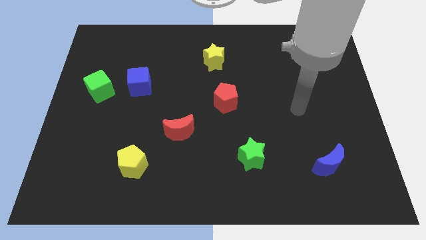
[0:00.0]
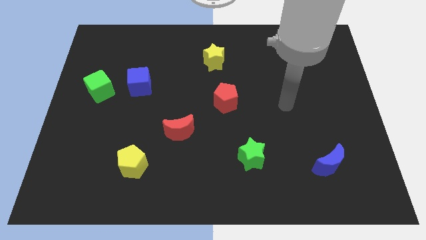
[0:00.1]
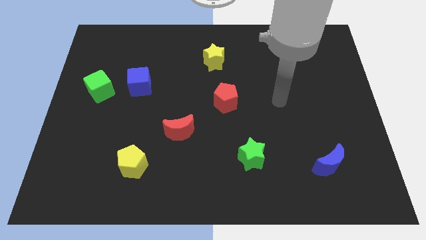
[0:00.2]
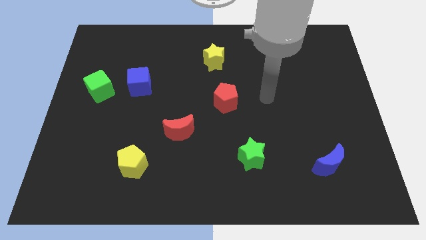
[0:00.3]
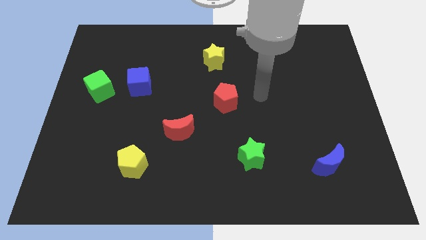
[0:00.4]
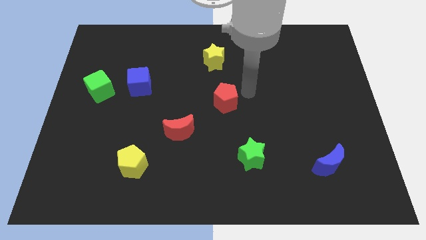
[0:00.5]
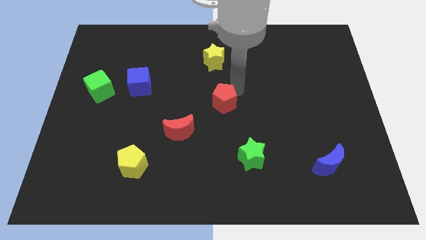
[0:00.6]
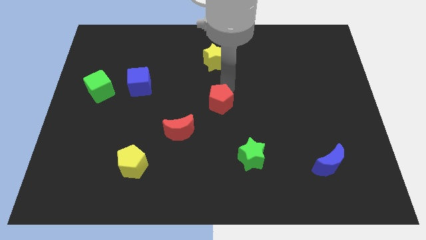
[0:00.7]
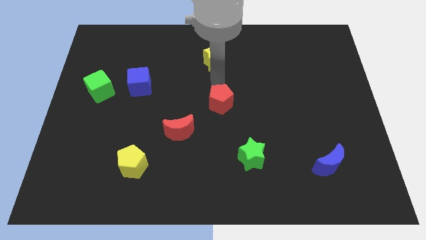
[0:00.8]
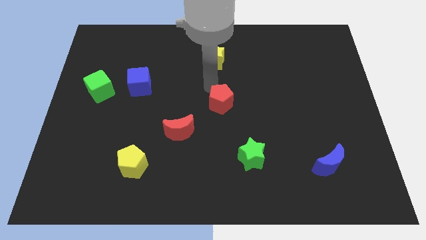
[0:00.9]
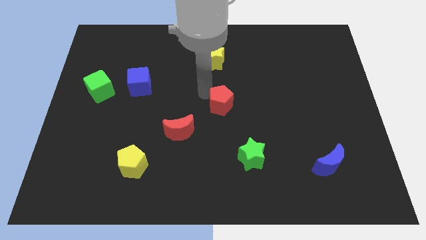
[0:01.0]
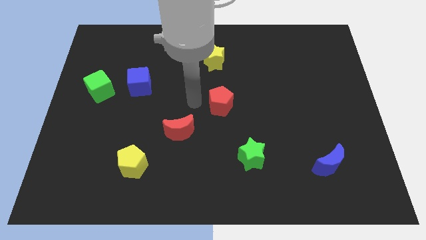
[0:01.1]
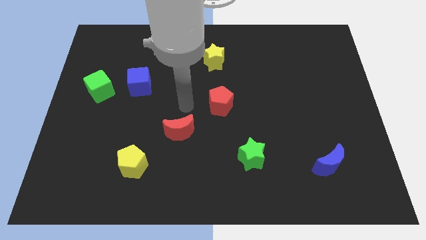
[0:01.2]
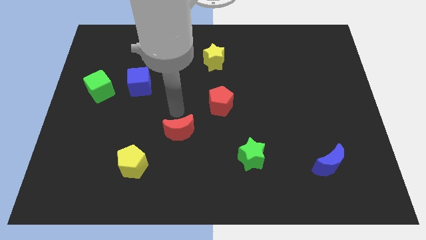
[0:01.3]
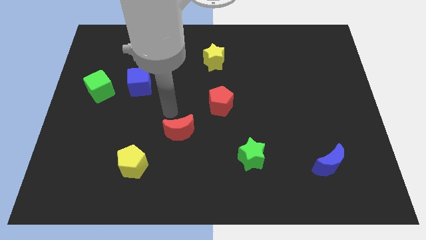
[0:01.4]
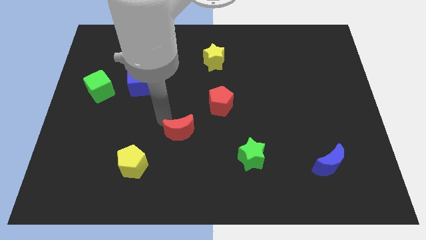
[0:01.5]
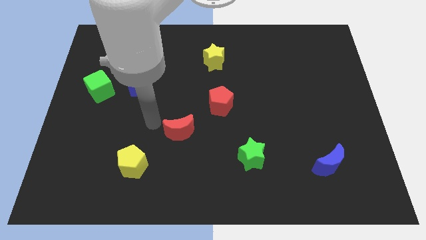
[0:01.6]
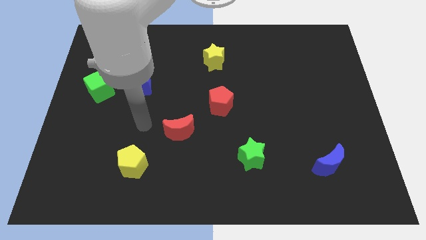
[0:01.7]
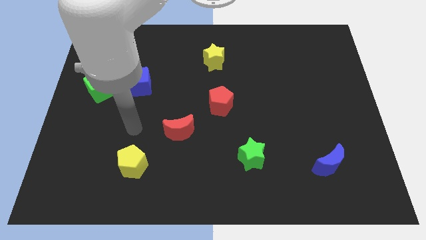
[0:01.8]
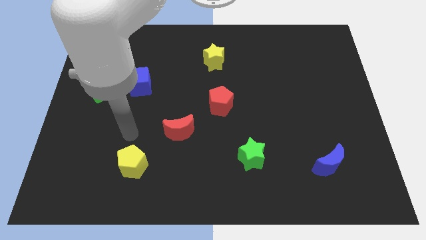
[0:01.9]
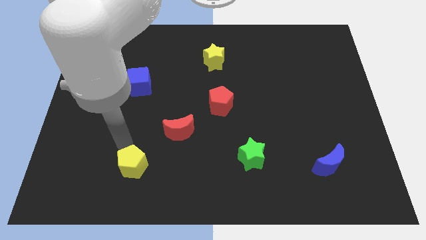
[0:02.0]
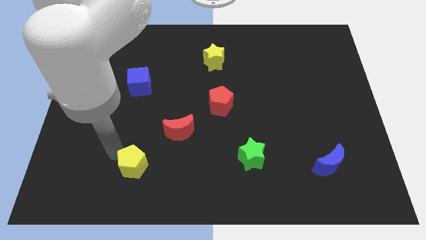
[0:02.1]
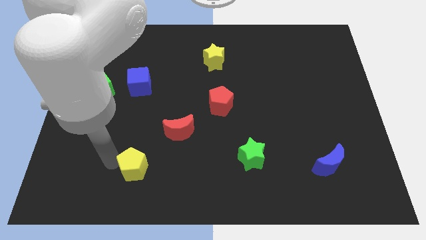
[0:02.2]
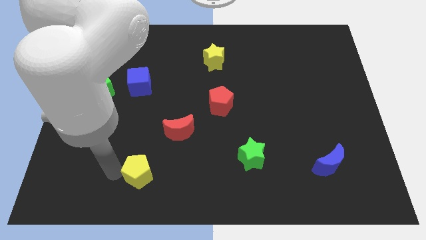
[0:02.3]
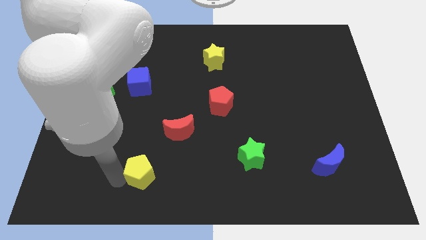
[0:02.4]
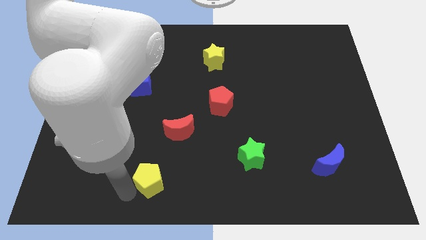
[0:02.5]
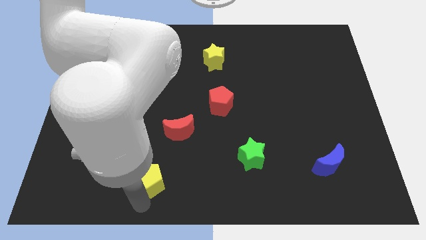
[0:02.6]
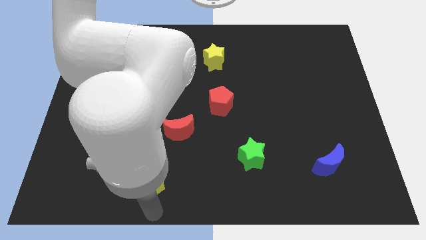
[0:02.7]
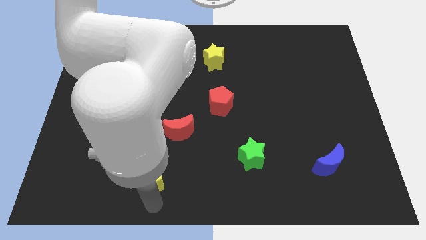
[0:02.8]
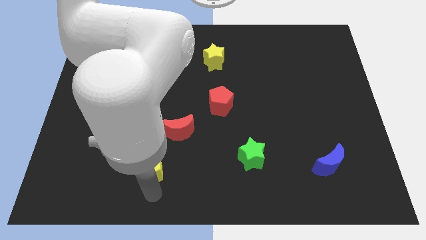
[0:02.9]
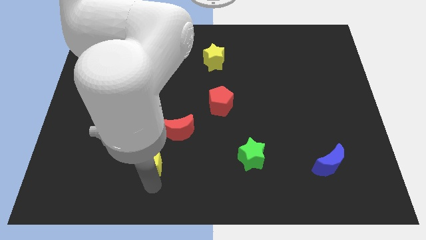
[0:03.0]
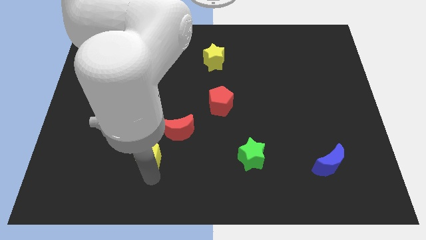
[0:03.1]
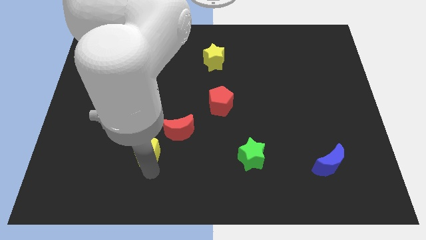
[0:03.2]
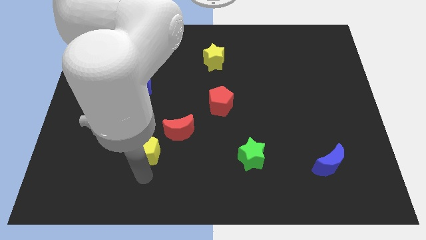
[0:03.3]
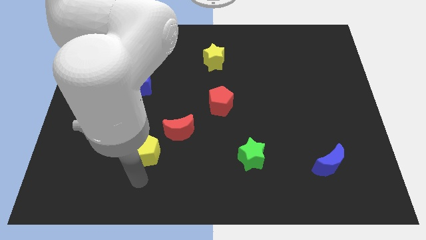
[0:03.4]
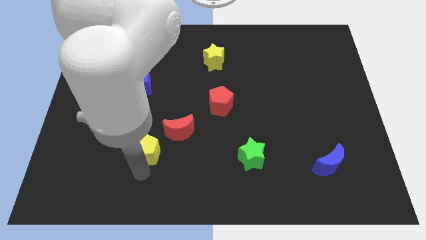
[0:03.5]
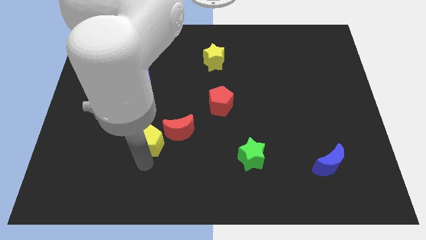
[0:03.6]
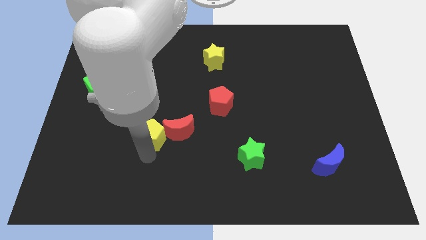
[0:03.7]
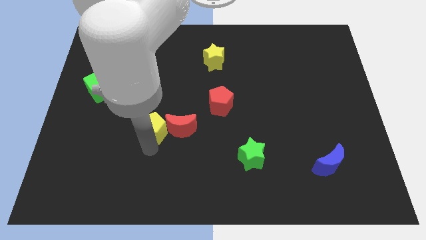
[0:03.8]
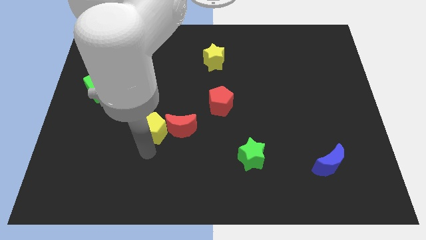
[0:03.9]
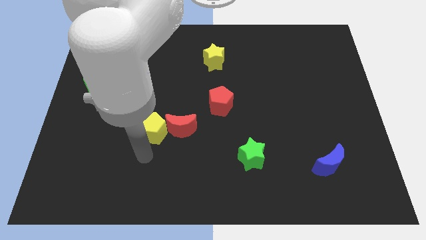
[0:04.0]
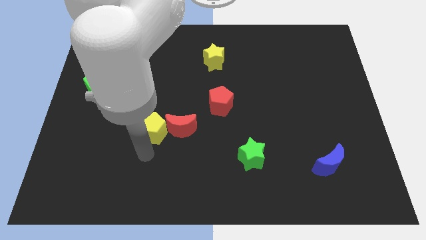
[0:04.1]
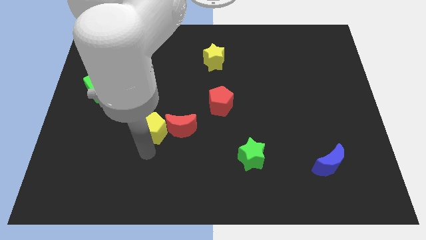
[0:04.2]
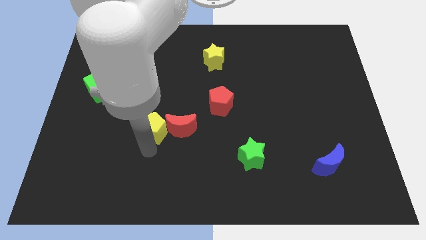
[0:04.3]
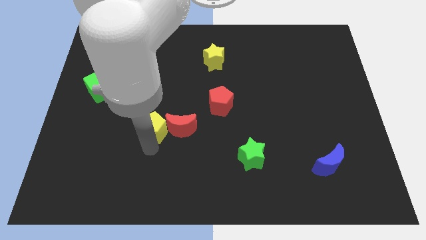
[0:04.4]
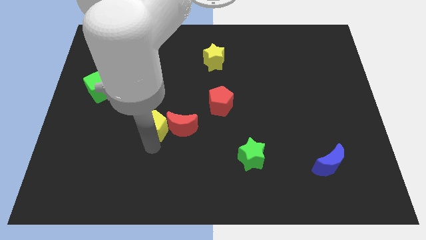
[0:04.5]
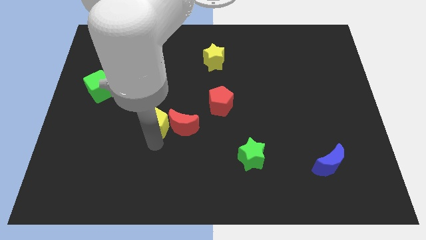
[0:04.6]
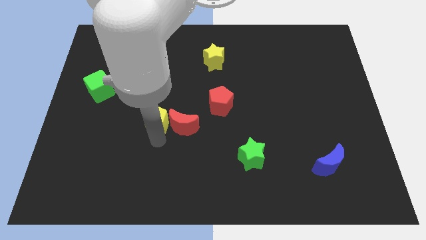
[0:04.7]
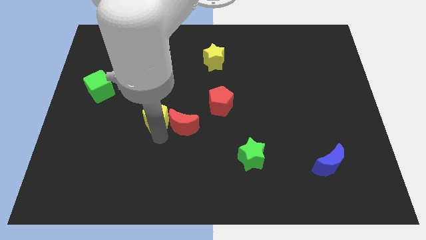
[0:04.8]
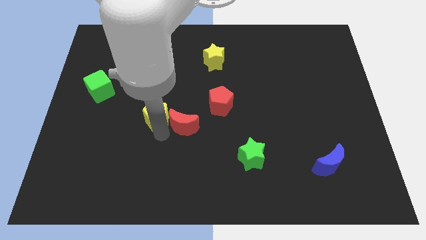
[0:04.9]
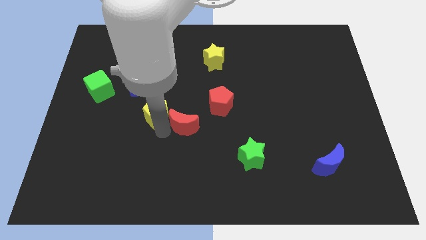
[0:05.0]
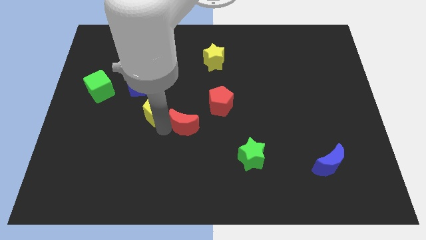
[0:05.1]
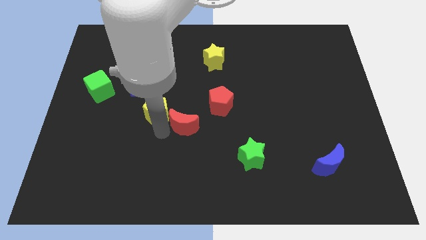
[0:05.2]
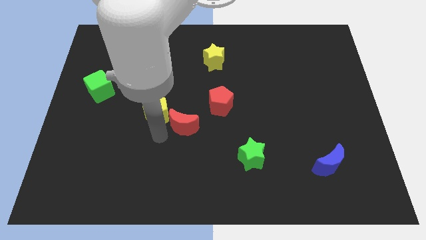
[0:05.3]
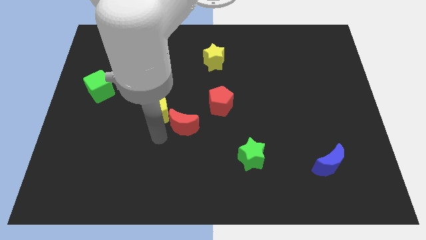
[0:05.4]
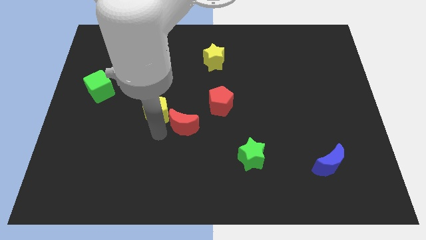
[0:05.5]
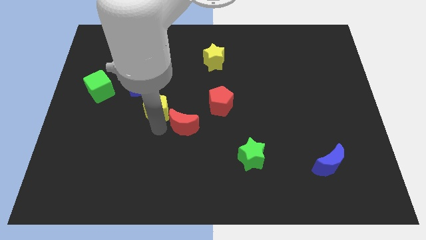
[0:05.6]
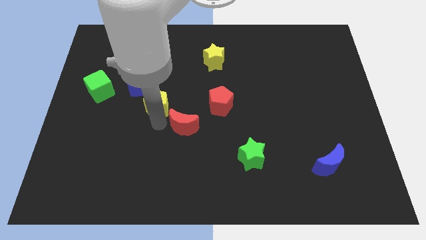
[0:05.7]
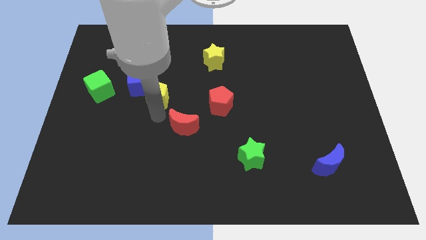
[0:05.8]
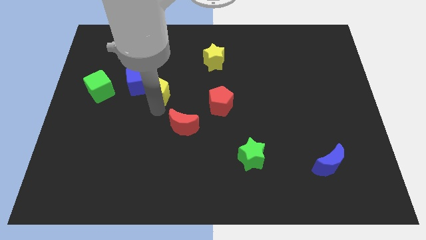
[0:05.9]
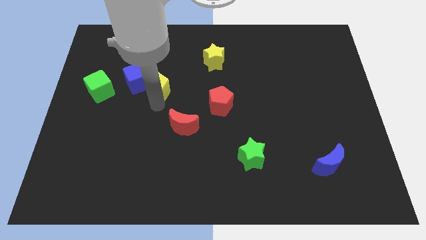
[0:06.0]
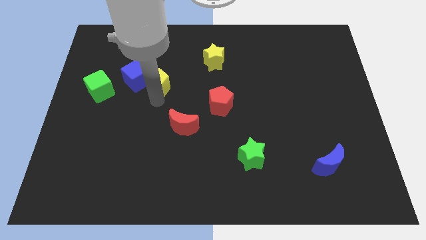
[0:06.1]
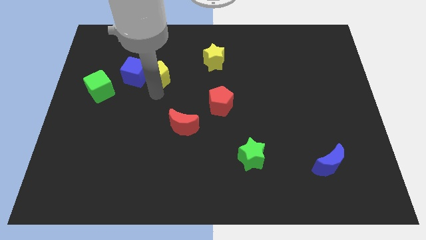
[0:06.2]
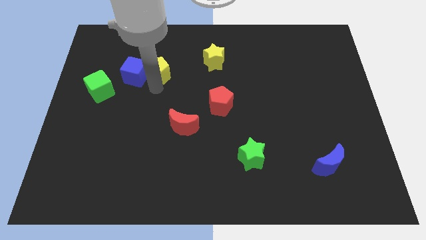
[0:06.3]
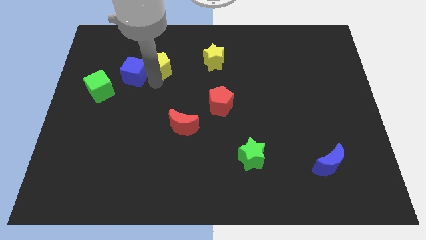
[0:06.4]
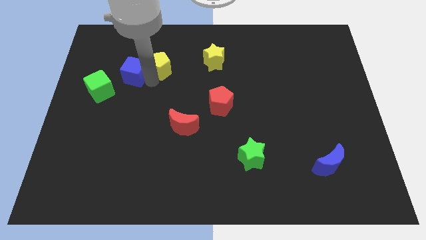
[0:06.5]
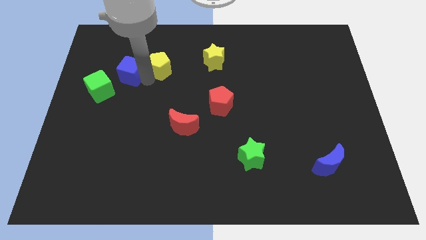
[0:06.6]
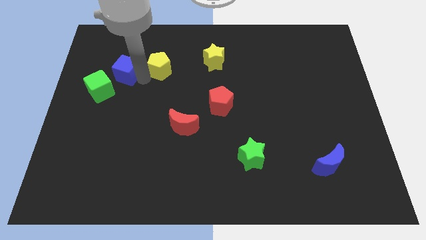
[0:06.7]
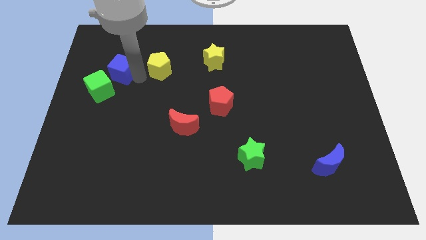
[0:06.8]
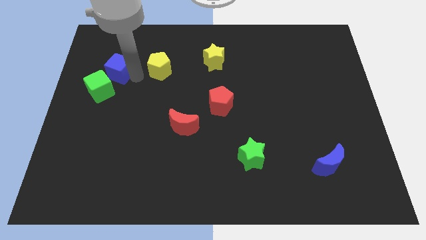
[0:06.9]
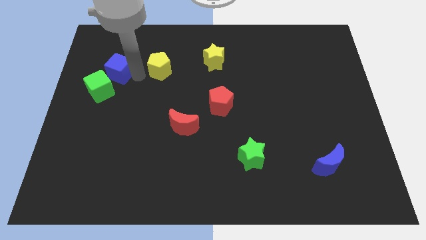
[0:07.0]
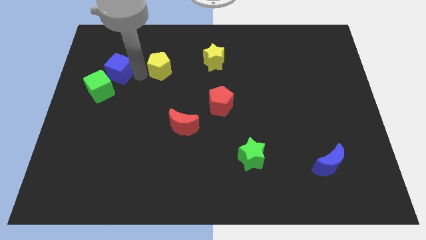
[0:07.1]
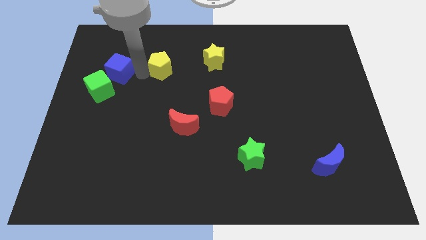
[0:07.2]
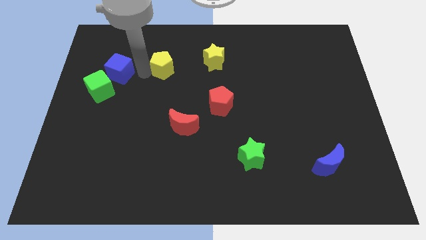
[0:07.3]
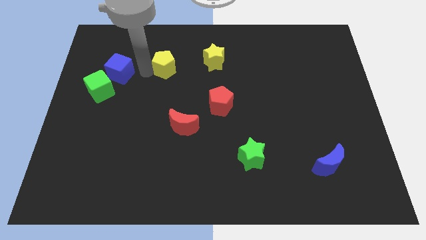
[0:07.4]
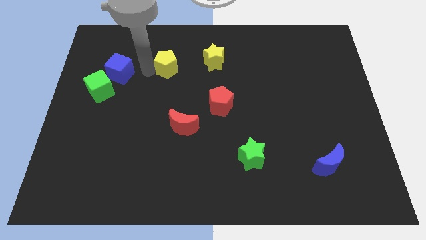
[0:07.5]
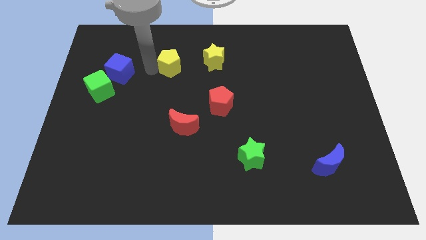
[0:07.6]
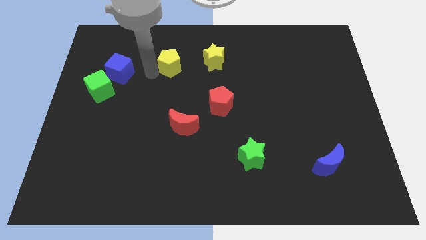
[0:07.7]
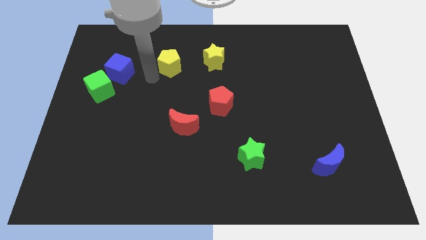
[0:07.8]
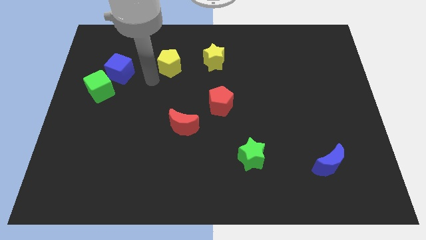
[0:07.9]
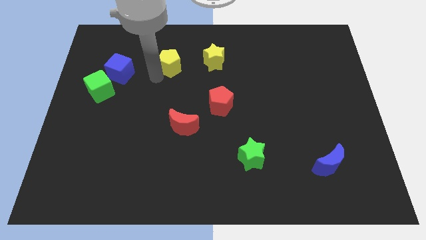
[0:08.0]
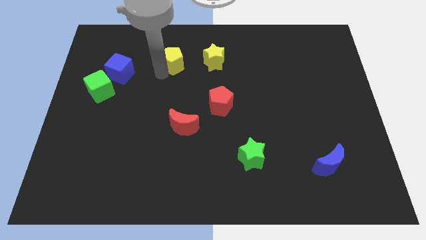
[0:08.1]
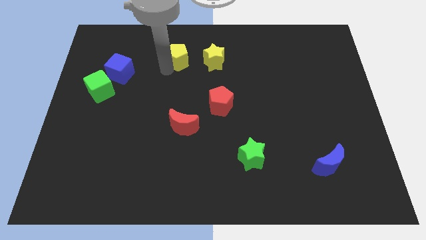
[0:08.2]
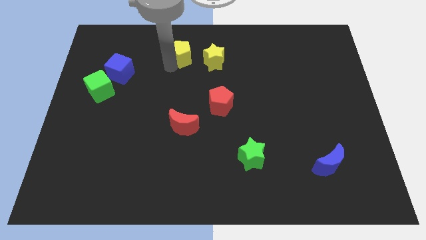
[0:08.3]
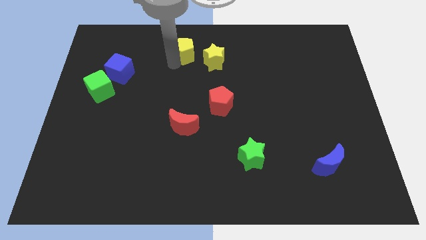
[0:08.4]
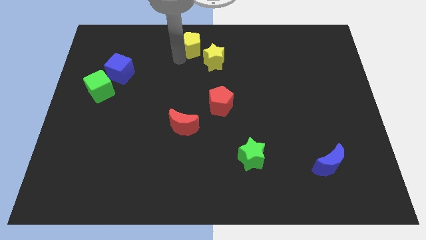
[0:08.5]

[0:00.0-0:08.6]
slide the yellow pentagon to the top side
